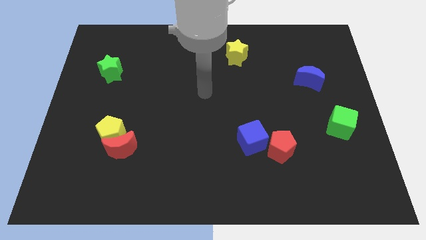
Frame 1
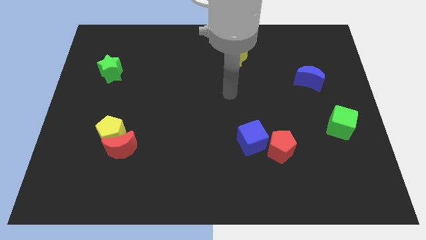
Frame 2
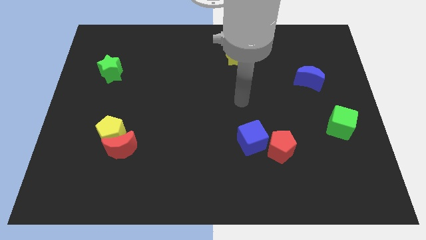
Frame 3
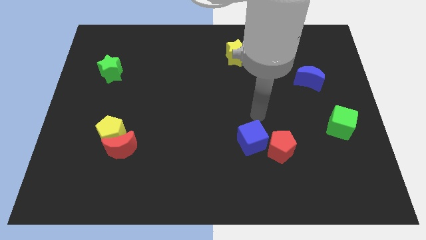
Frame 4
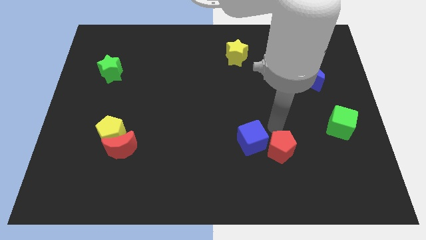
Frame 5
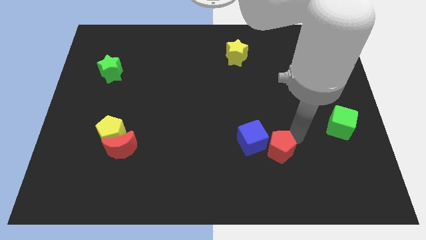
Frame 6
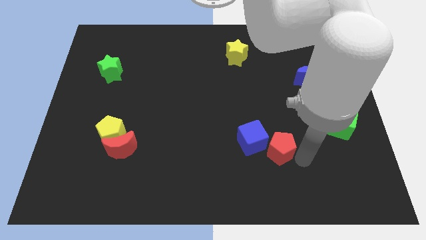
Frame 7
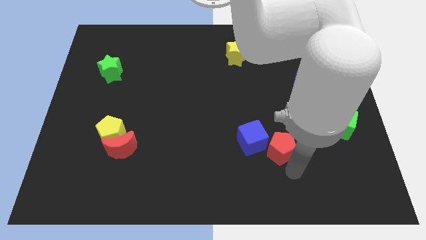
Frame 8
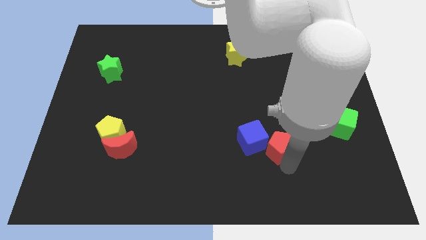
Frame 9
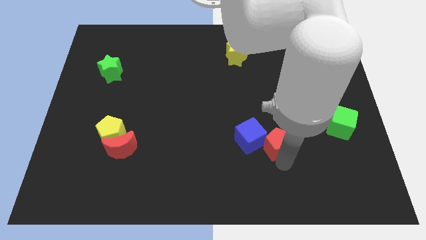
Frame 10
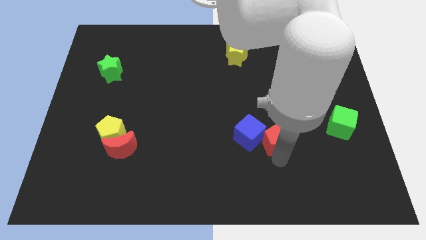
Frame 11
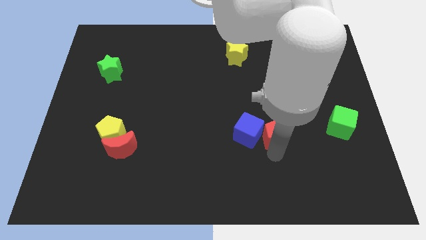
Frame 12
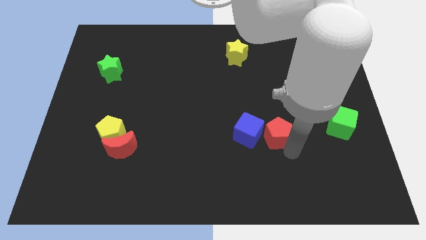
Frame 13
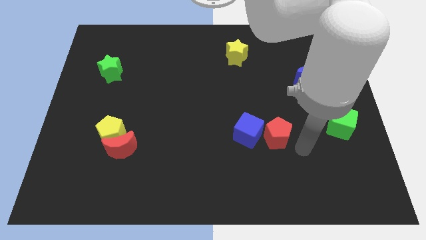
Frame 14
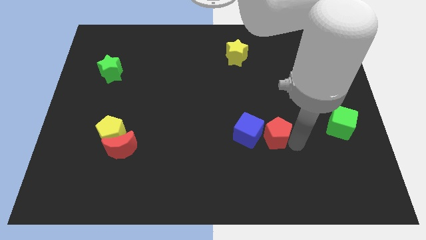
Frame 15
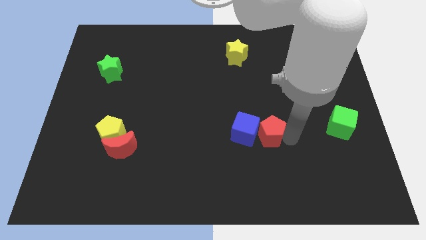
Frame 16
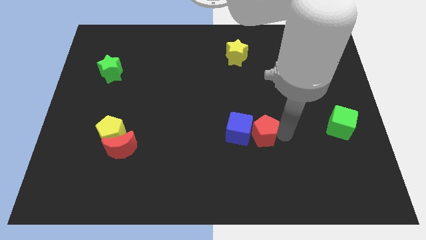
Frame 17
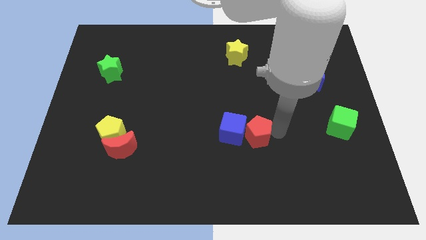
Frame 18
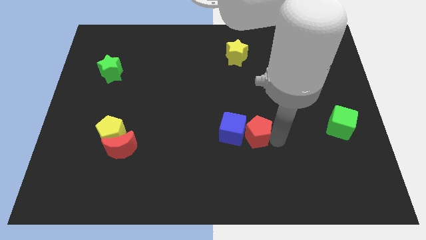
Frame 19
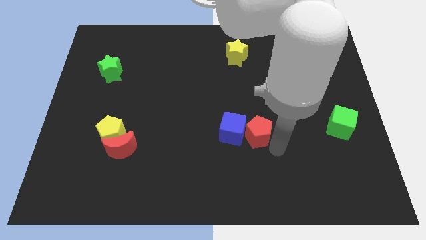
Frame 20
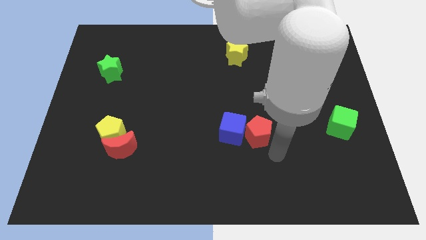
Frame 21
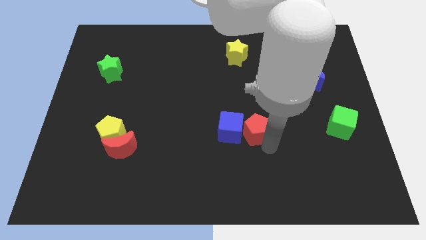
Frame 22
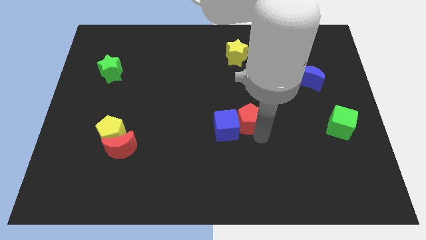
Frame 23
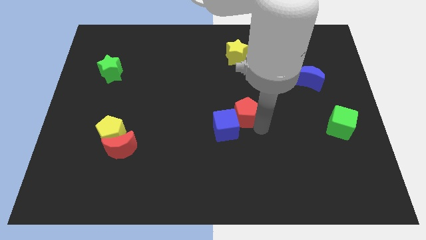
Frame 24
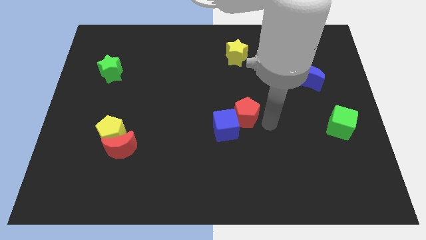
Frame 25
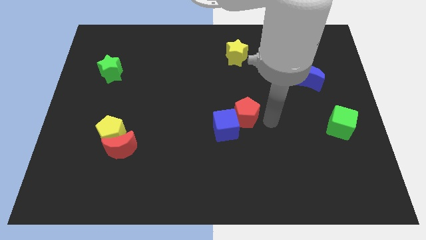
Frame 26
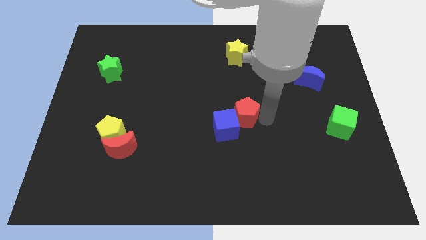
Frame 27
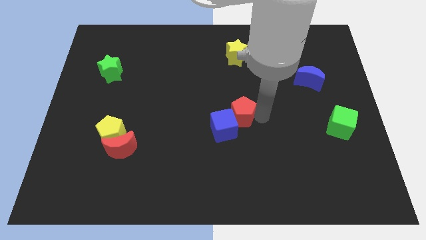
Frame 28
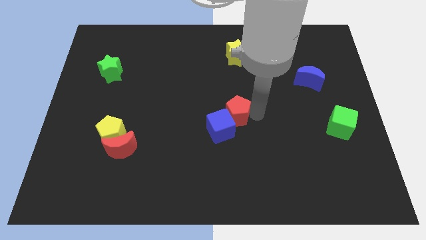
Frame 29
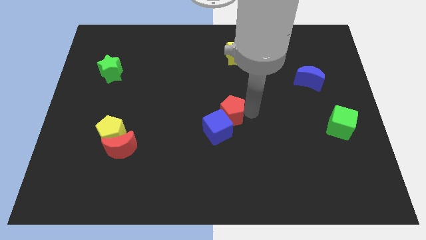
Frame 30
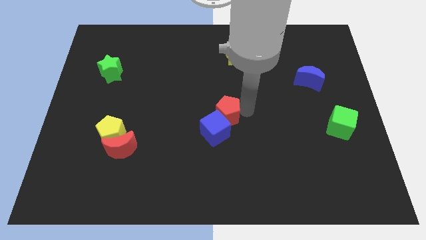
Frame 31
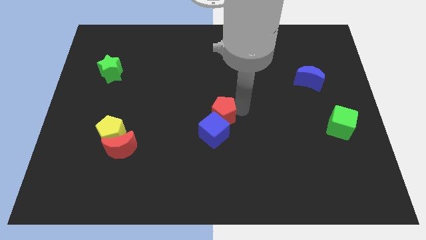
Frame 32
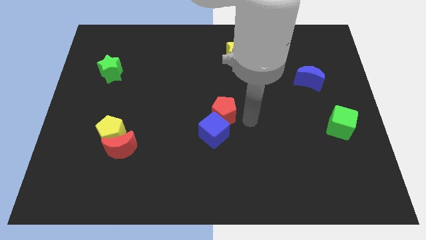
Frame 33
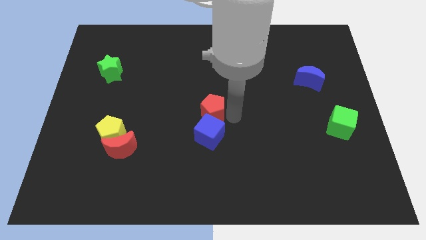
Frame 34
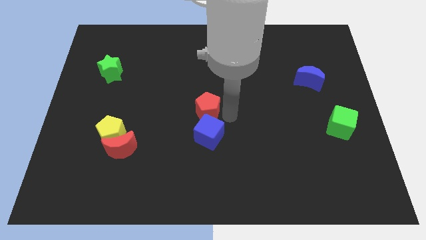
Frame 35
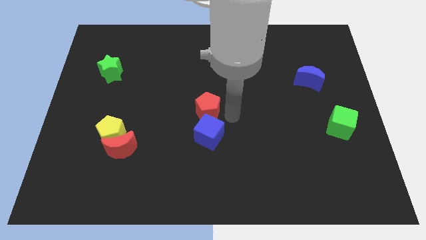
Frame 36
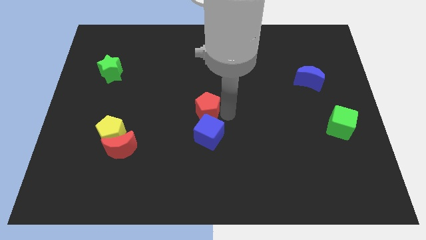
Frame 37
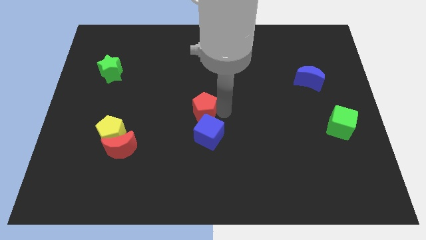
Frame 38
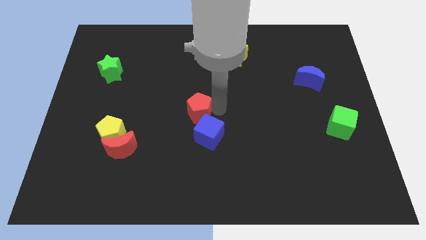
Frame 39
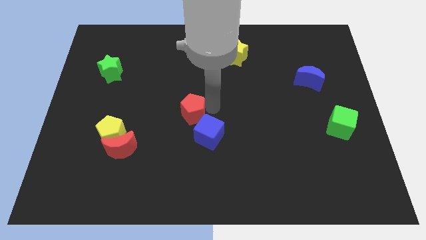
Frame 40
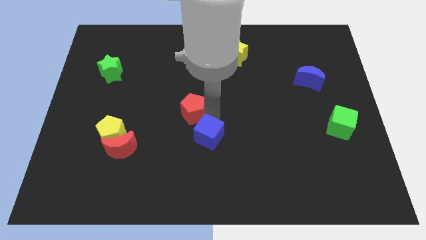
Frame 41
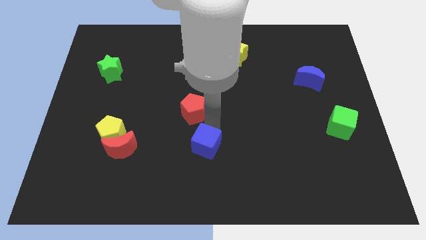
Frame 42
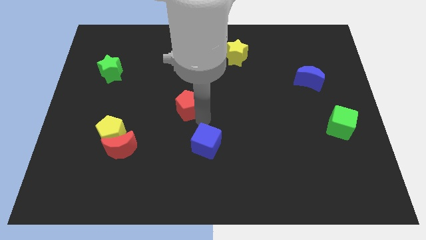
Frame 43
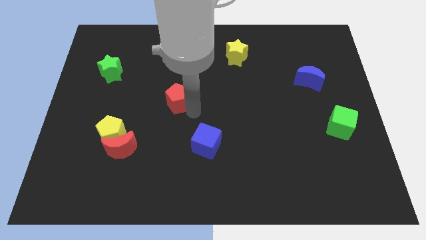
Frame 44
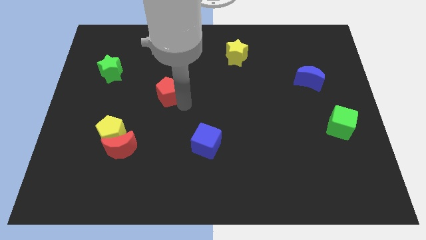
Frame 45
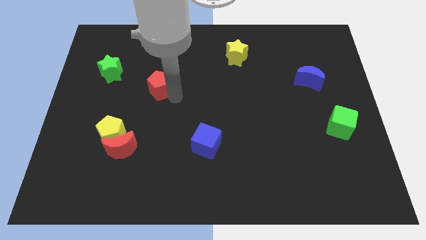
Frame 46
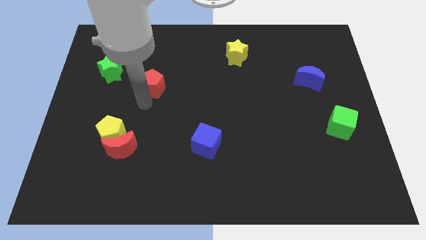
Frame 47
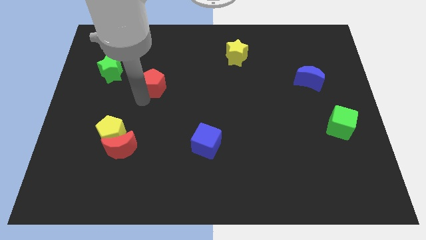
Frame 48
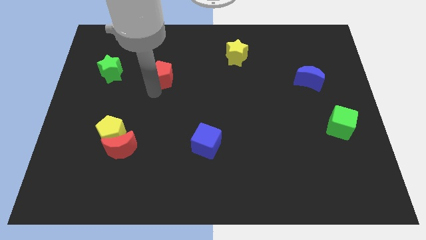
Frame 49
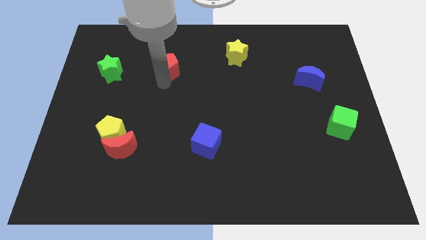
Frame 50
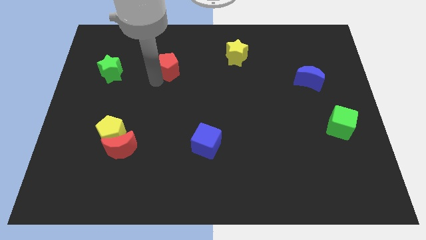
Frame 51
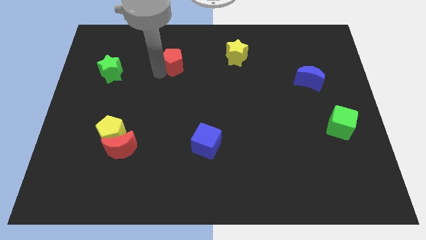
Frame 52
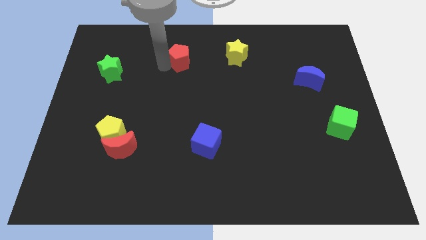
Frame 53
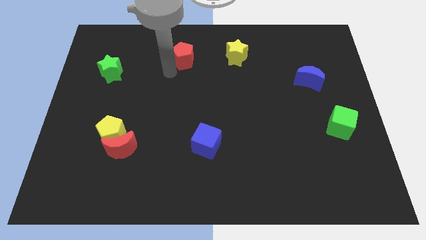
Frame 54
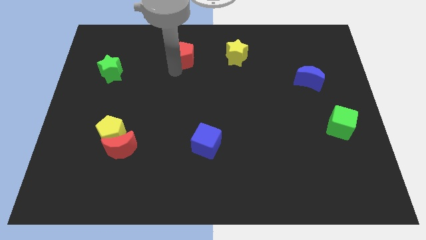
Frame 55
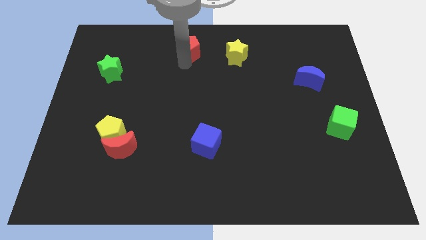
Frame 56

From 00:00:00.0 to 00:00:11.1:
move the red pentagon to the top

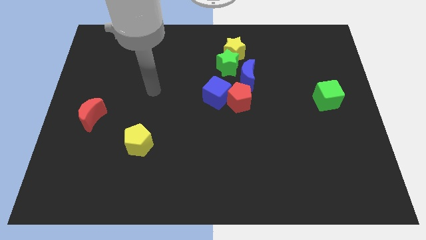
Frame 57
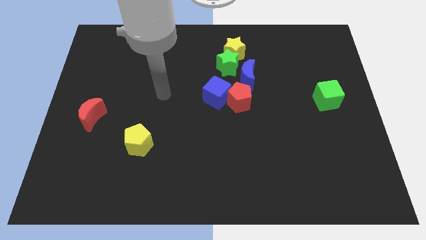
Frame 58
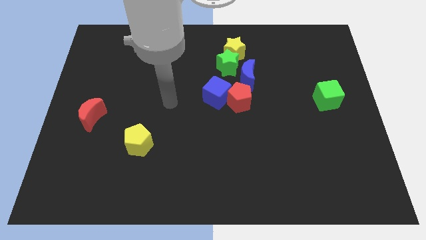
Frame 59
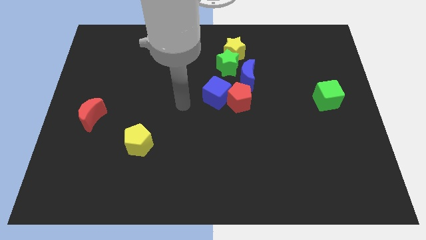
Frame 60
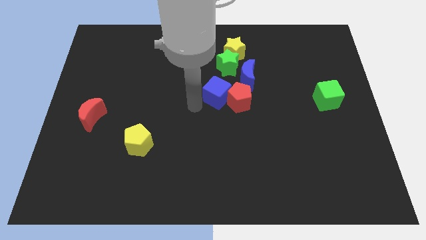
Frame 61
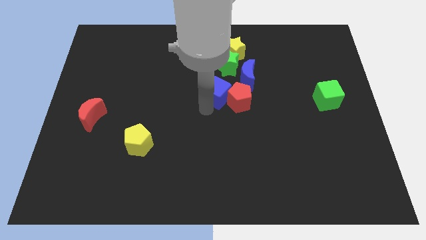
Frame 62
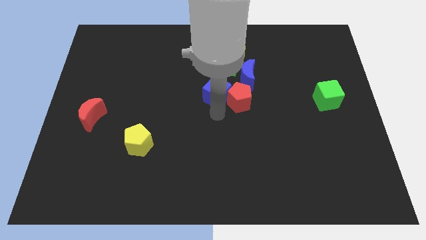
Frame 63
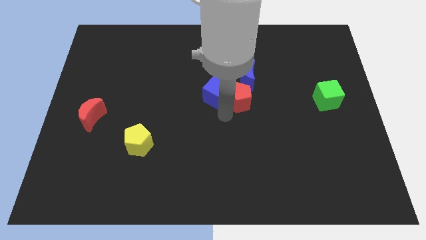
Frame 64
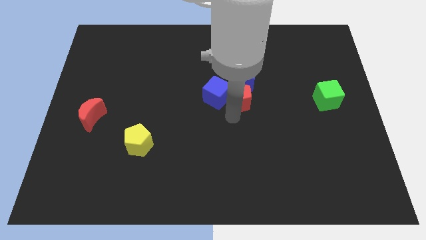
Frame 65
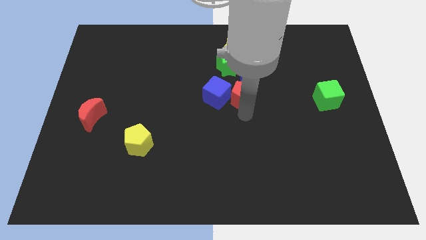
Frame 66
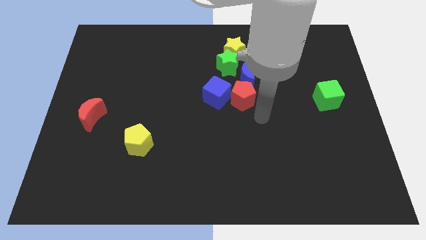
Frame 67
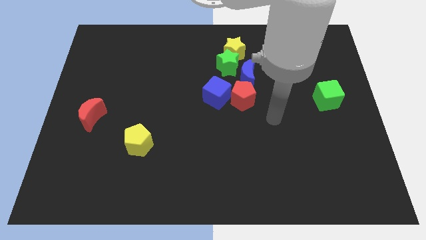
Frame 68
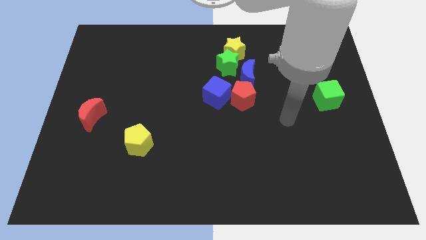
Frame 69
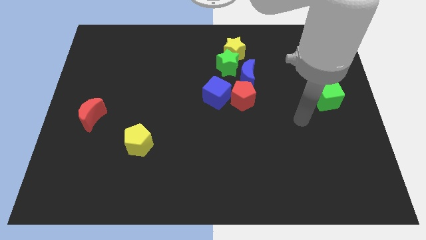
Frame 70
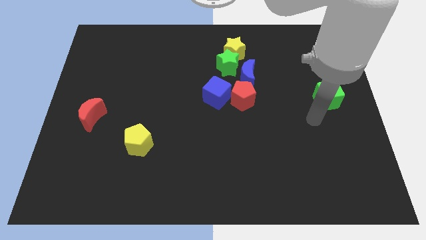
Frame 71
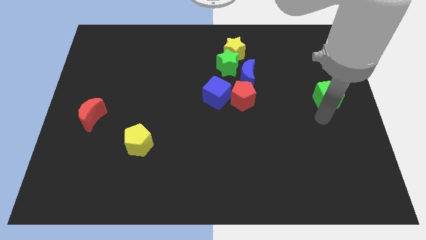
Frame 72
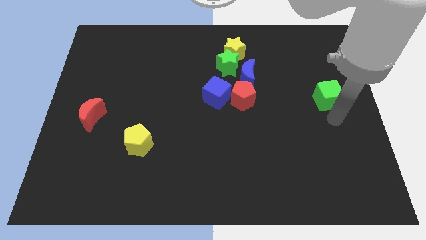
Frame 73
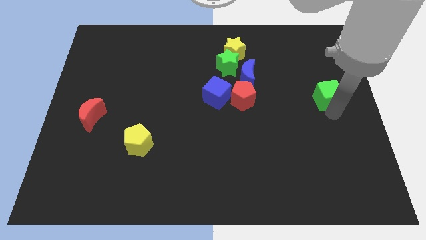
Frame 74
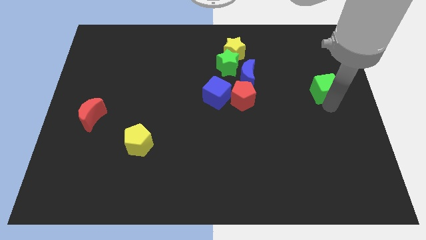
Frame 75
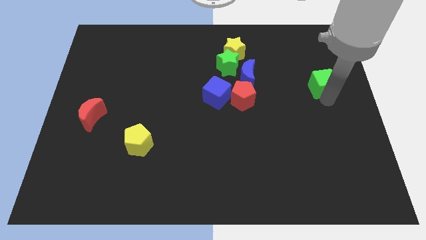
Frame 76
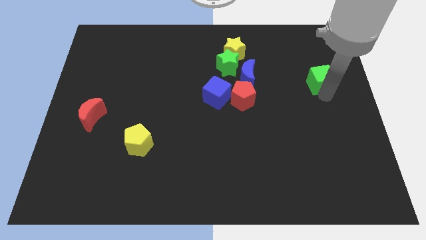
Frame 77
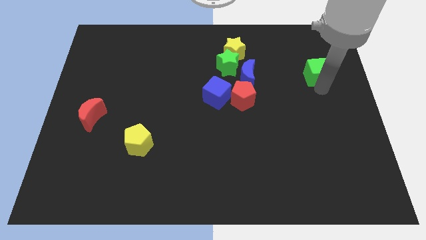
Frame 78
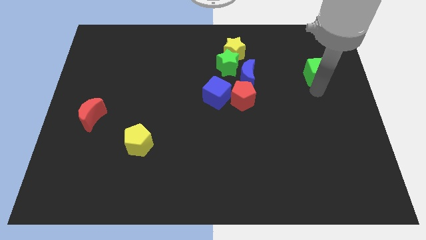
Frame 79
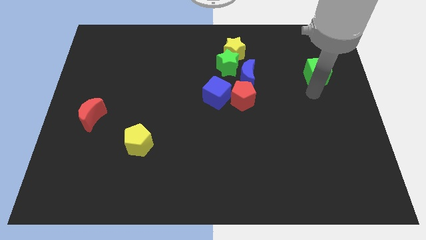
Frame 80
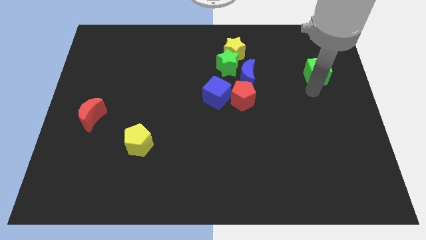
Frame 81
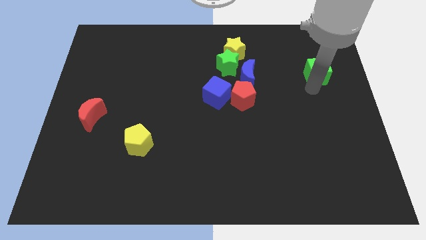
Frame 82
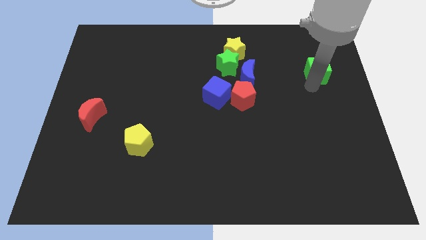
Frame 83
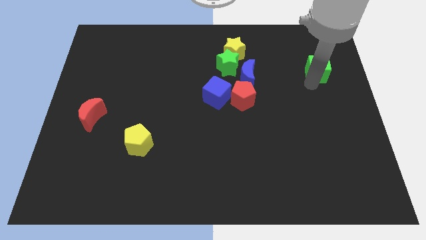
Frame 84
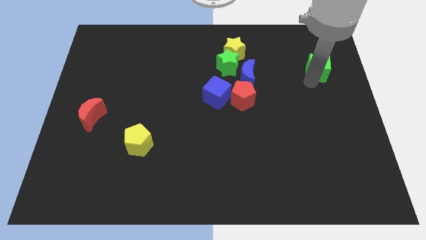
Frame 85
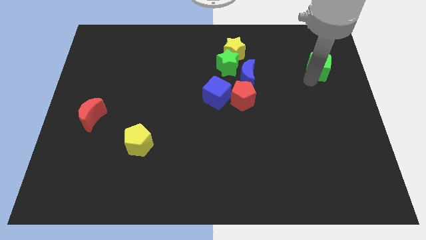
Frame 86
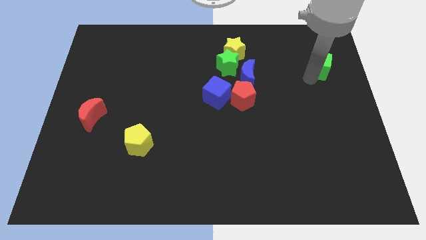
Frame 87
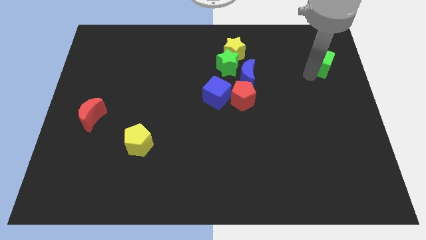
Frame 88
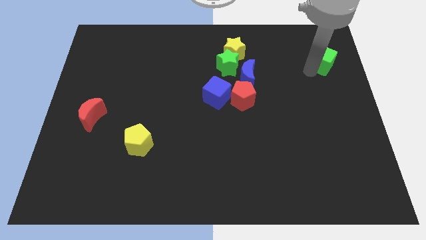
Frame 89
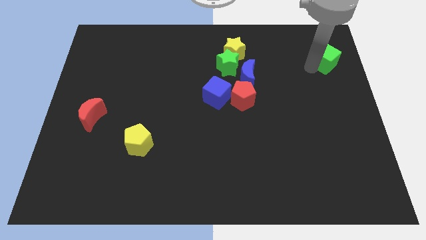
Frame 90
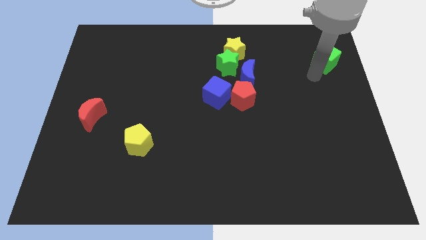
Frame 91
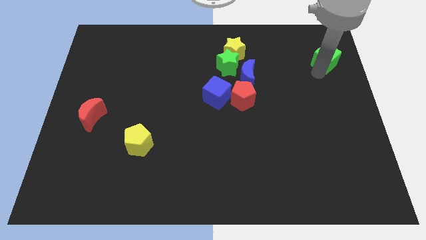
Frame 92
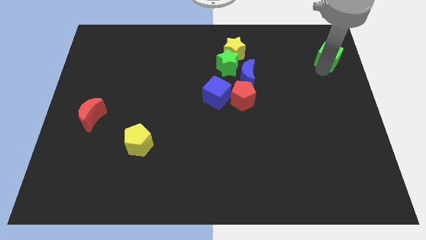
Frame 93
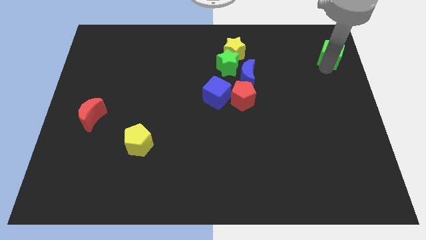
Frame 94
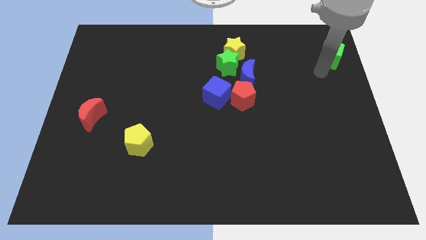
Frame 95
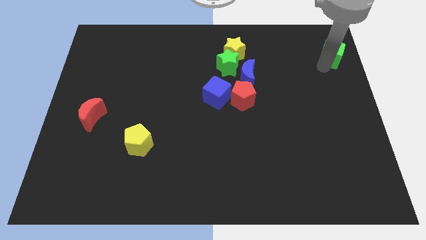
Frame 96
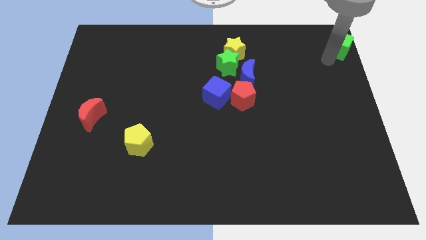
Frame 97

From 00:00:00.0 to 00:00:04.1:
put the green cube to the top right
